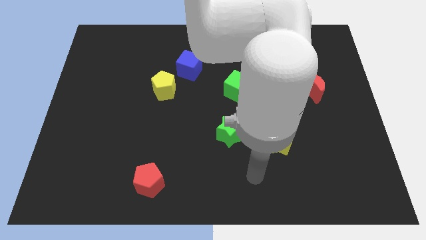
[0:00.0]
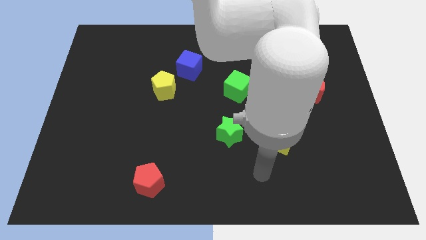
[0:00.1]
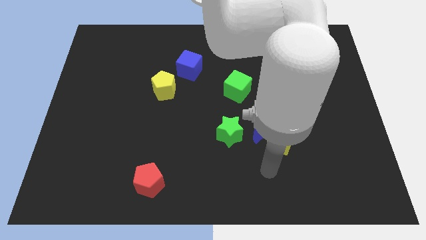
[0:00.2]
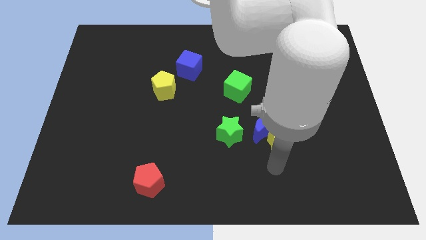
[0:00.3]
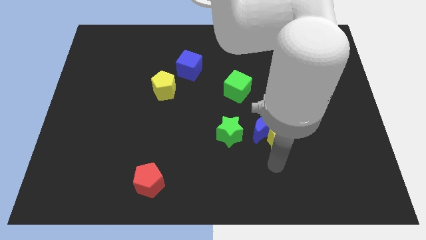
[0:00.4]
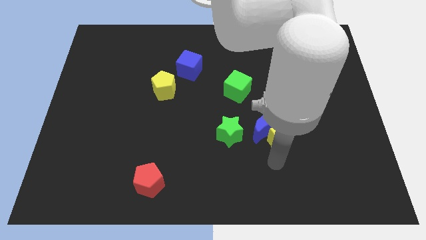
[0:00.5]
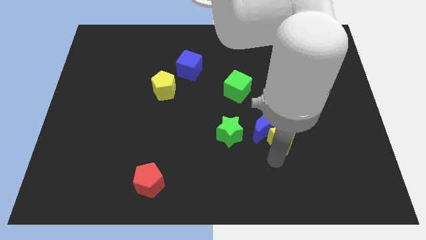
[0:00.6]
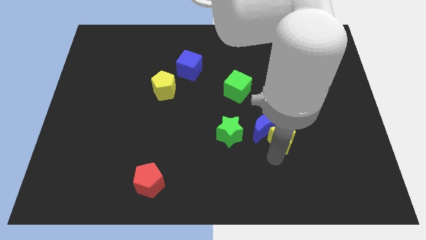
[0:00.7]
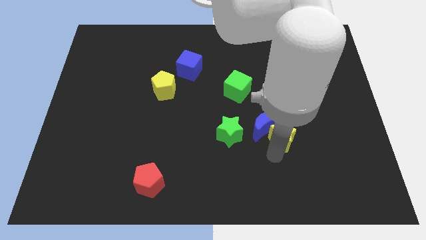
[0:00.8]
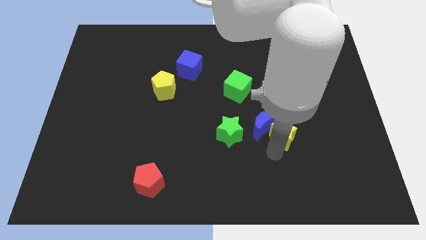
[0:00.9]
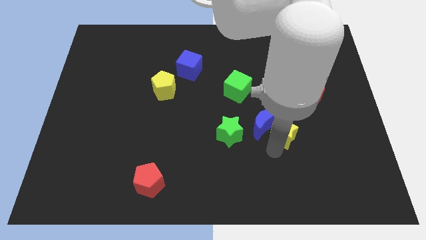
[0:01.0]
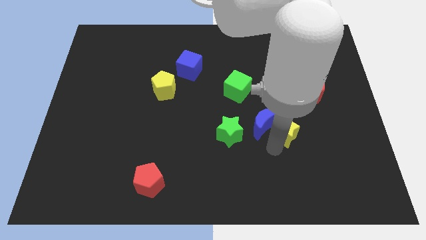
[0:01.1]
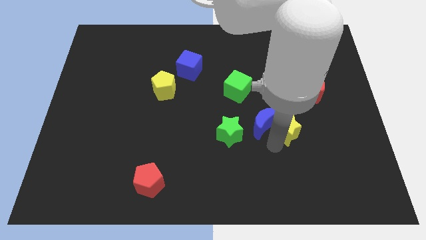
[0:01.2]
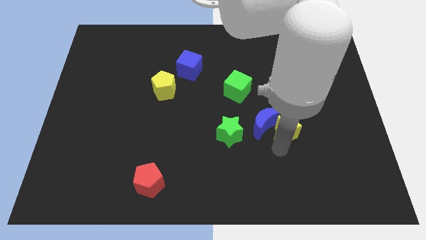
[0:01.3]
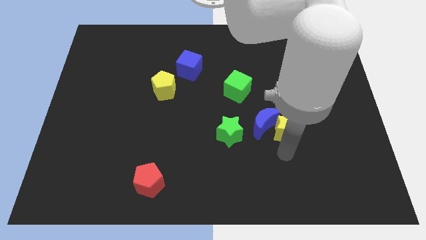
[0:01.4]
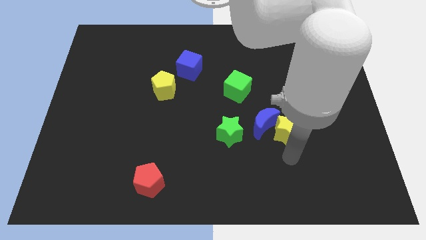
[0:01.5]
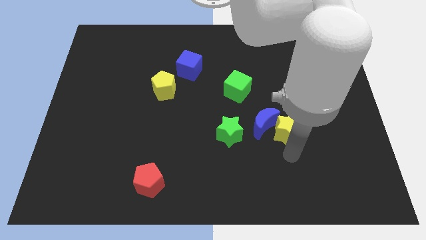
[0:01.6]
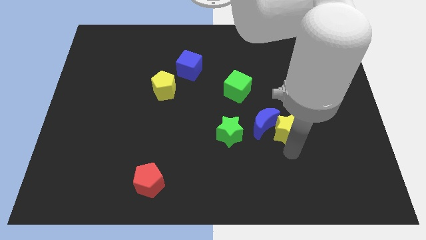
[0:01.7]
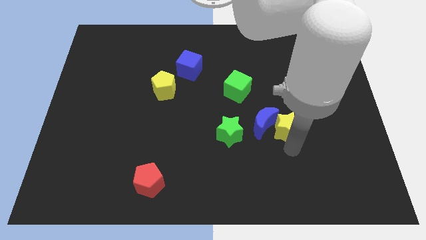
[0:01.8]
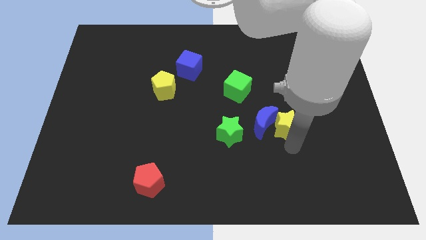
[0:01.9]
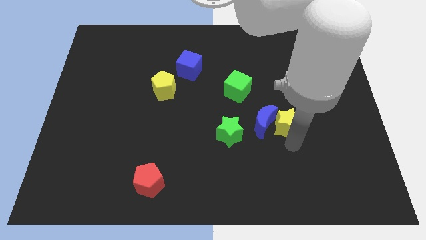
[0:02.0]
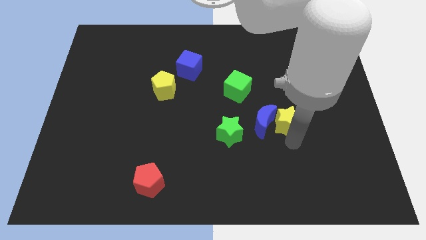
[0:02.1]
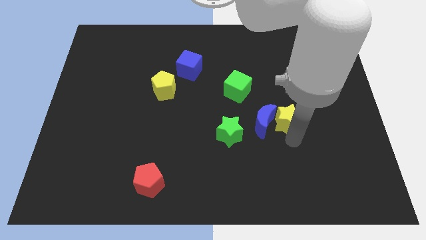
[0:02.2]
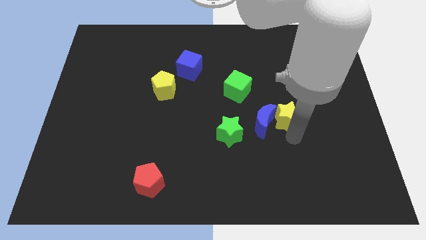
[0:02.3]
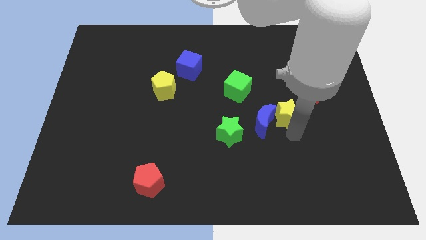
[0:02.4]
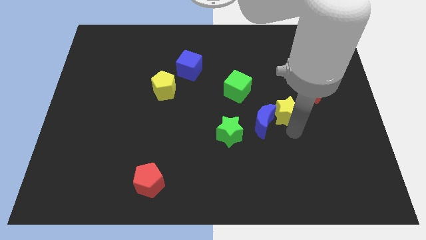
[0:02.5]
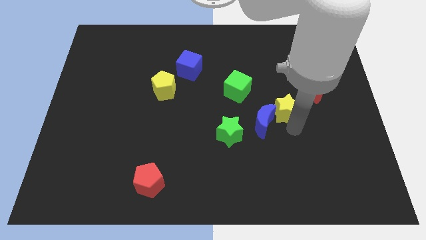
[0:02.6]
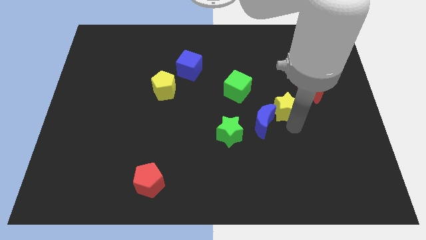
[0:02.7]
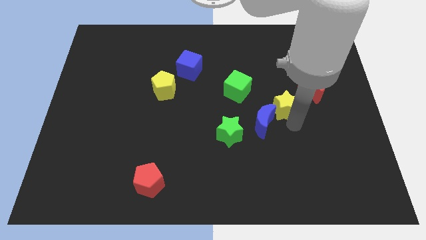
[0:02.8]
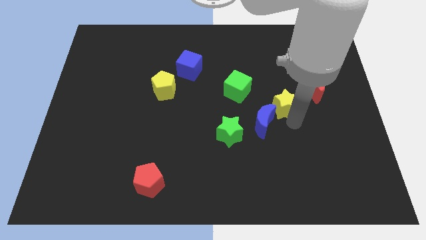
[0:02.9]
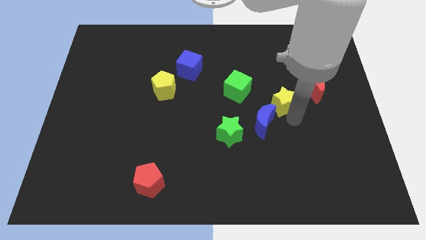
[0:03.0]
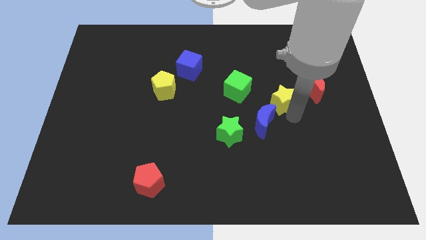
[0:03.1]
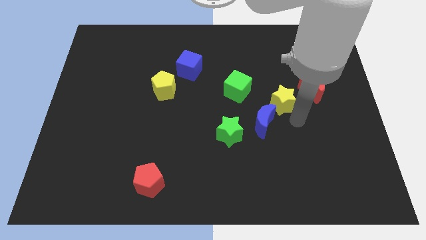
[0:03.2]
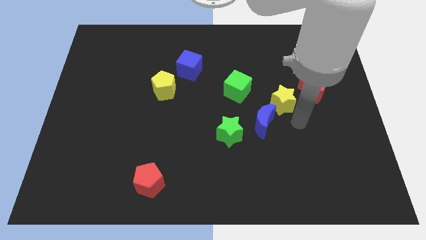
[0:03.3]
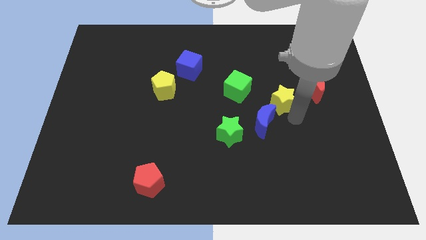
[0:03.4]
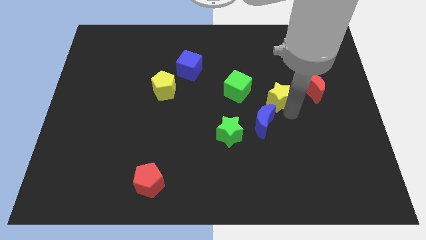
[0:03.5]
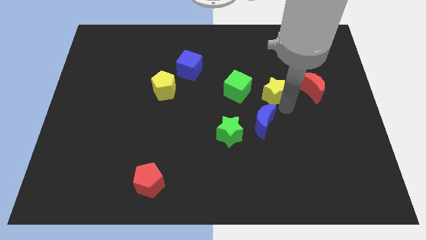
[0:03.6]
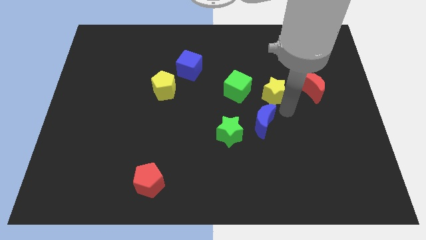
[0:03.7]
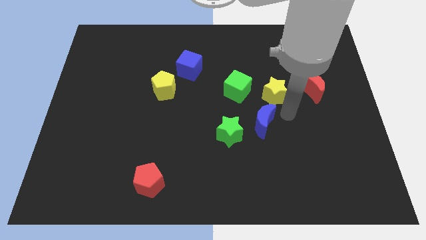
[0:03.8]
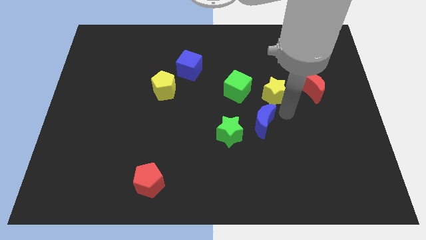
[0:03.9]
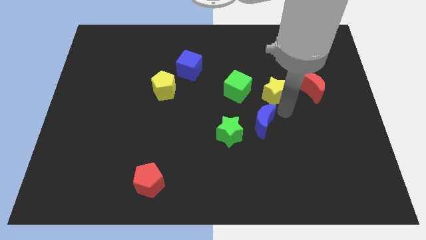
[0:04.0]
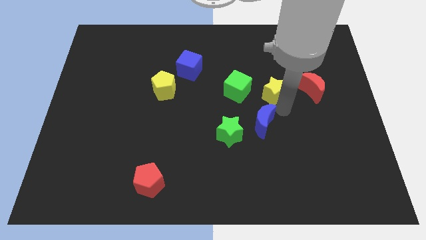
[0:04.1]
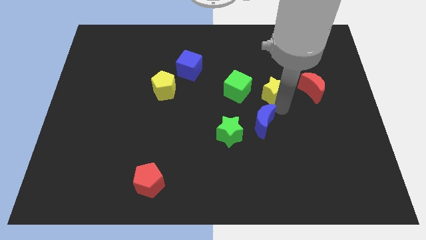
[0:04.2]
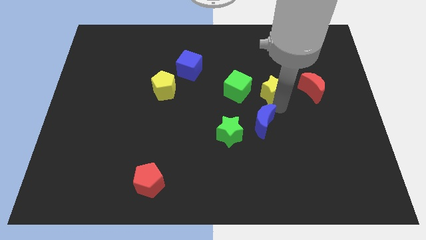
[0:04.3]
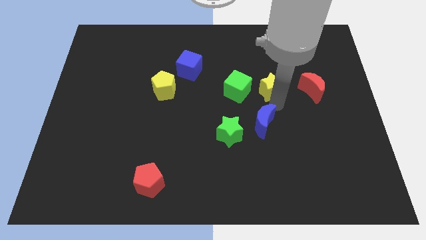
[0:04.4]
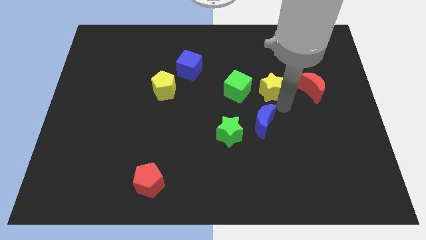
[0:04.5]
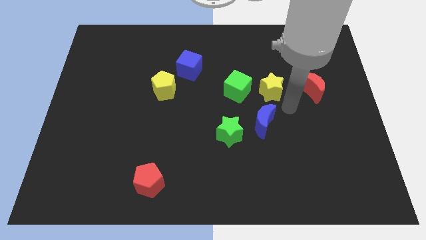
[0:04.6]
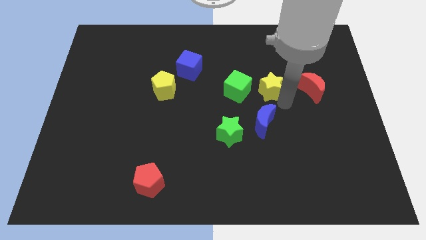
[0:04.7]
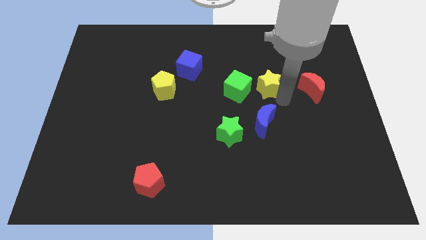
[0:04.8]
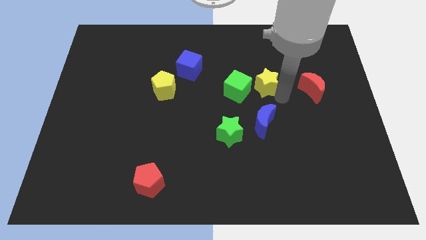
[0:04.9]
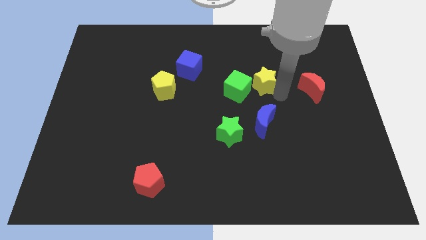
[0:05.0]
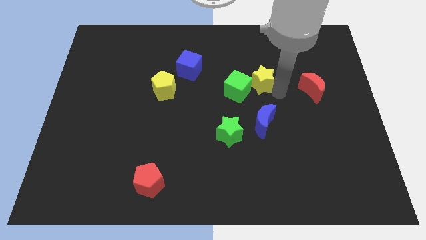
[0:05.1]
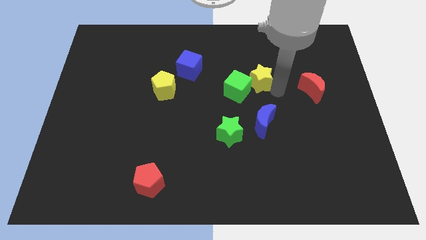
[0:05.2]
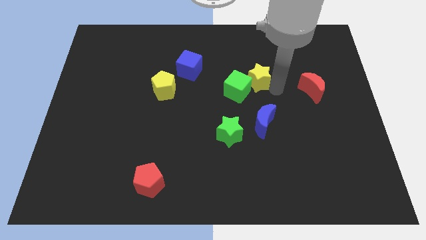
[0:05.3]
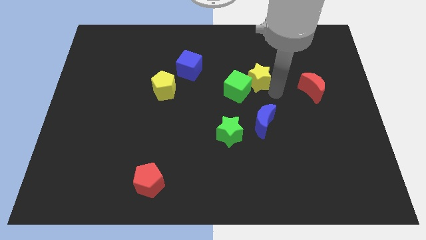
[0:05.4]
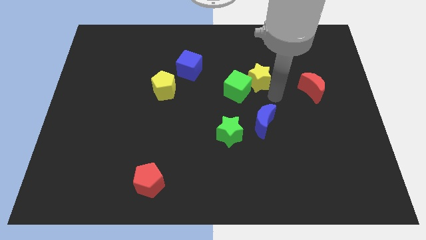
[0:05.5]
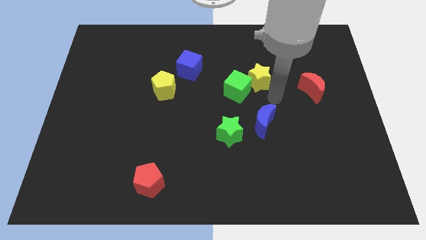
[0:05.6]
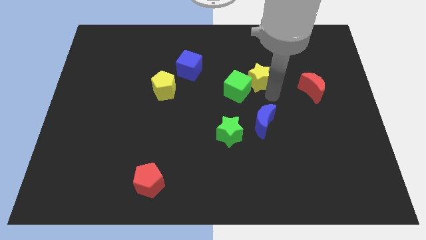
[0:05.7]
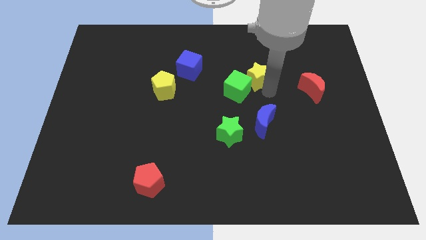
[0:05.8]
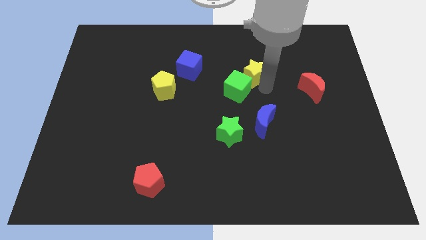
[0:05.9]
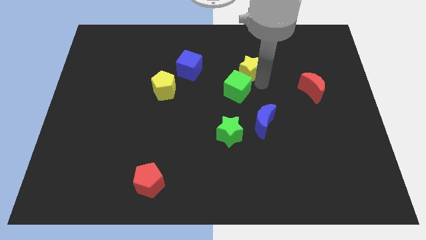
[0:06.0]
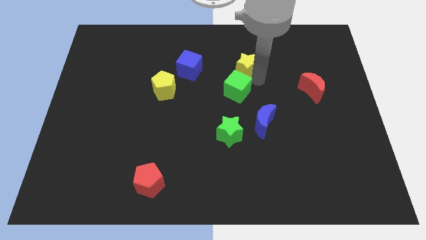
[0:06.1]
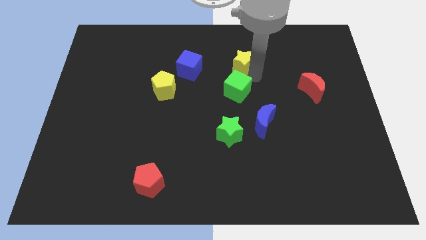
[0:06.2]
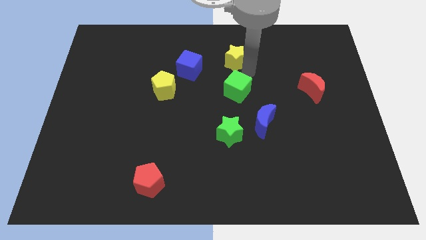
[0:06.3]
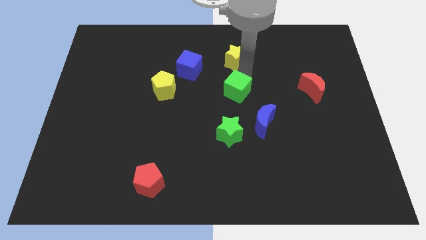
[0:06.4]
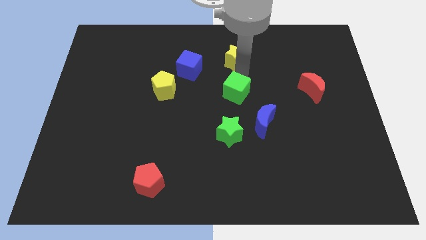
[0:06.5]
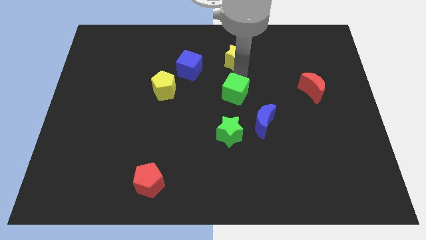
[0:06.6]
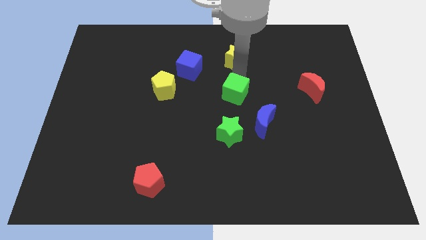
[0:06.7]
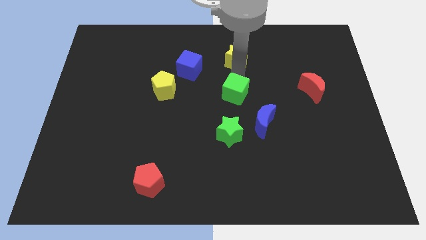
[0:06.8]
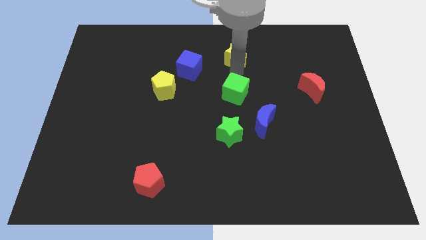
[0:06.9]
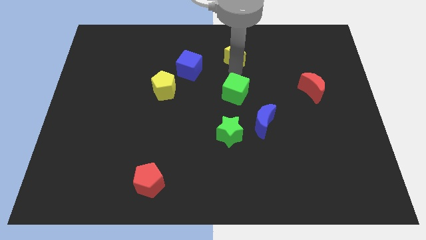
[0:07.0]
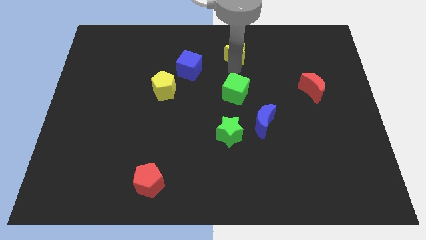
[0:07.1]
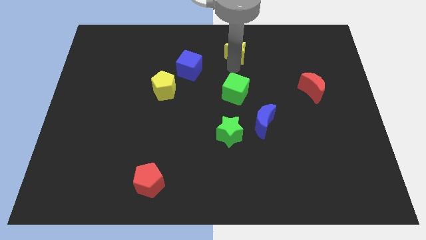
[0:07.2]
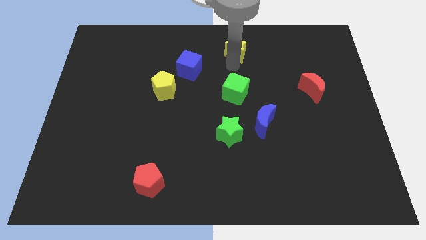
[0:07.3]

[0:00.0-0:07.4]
move the yellow star to the top
